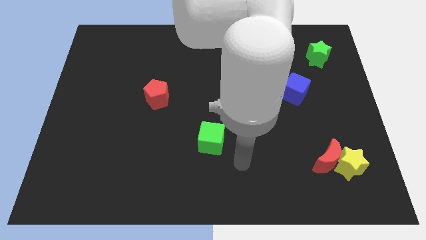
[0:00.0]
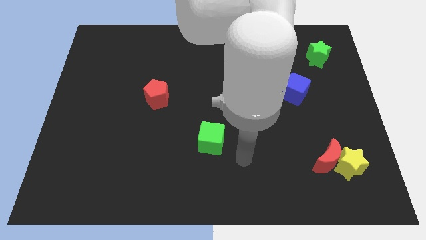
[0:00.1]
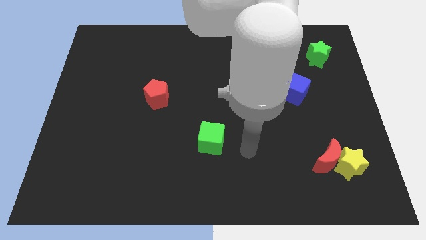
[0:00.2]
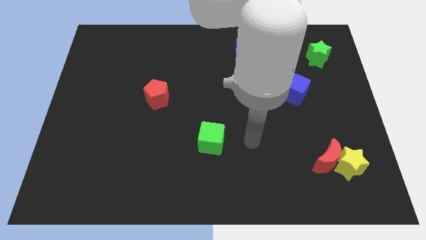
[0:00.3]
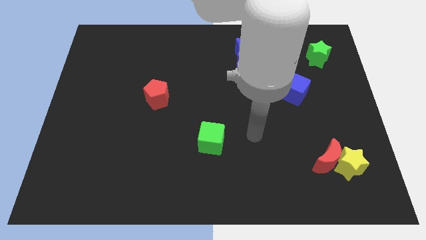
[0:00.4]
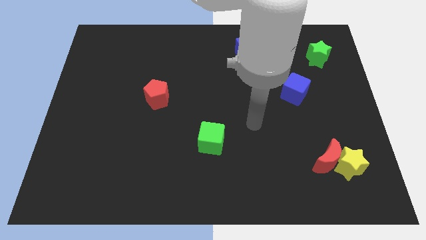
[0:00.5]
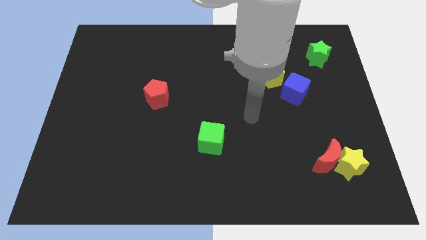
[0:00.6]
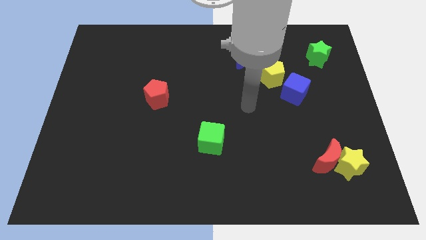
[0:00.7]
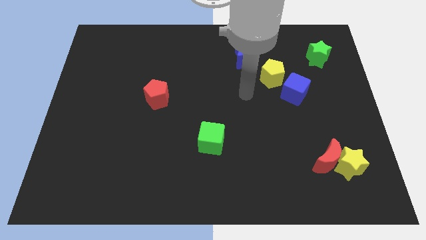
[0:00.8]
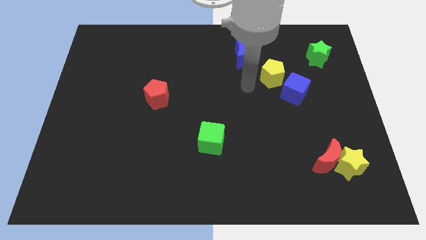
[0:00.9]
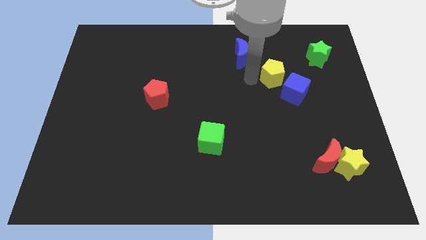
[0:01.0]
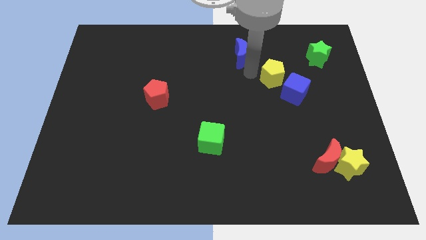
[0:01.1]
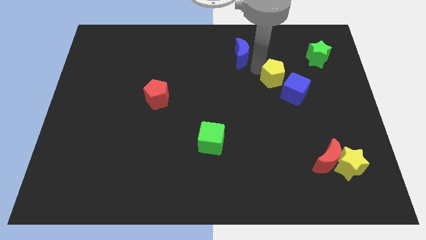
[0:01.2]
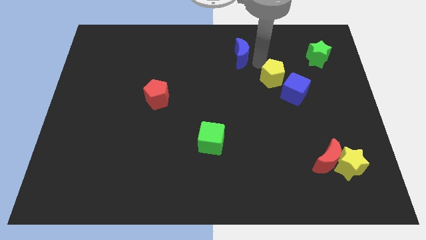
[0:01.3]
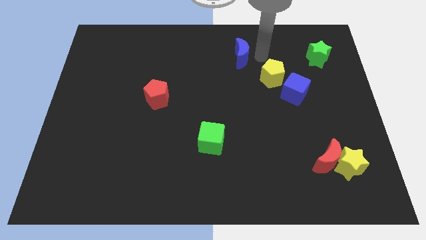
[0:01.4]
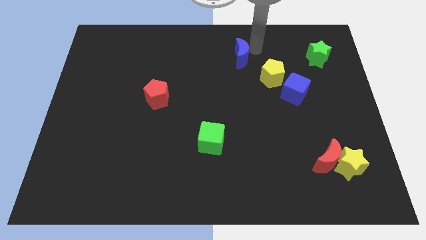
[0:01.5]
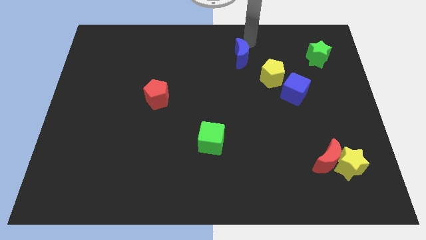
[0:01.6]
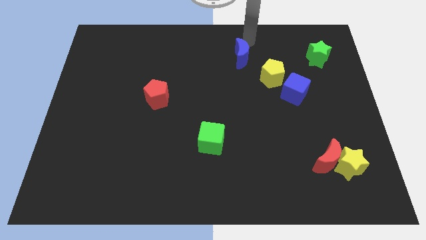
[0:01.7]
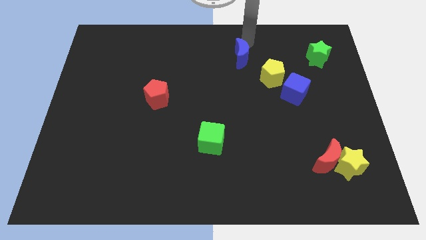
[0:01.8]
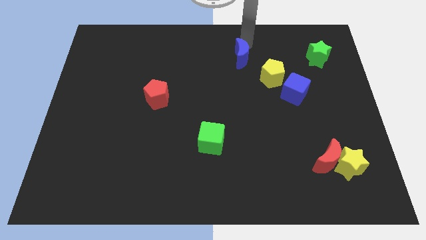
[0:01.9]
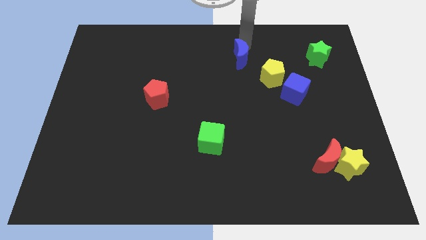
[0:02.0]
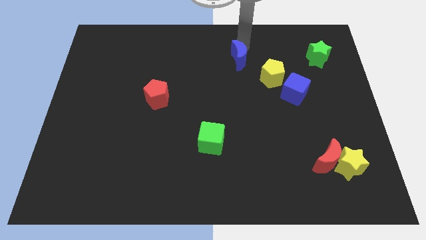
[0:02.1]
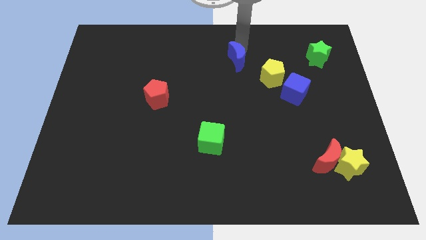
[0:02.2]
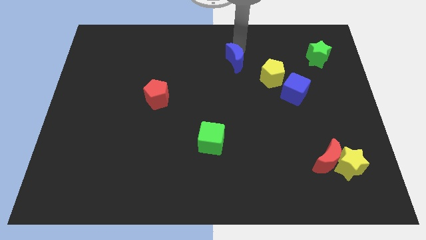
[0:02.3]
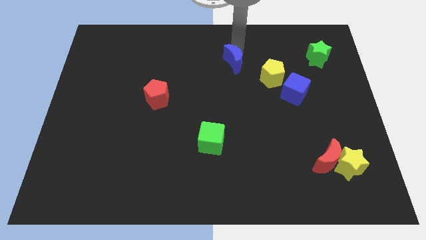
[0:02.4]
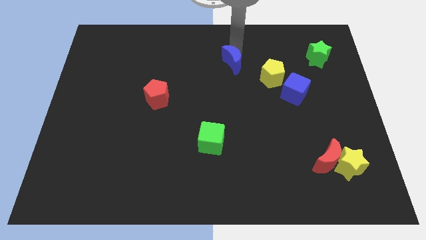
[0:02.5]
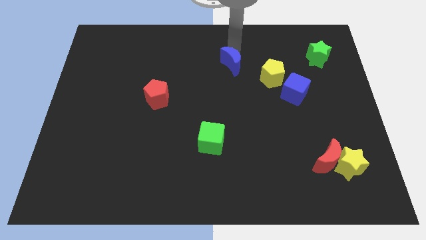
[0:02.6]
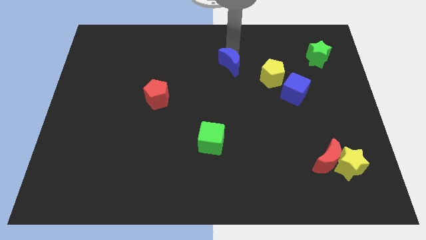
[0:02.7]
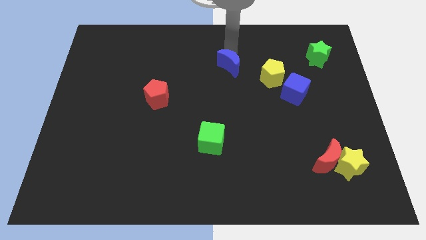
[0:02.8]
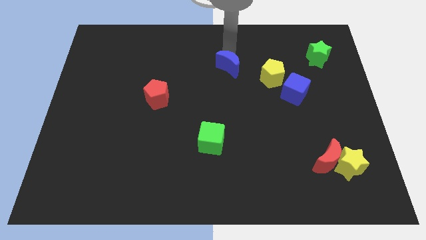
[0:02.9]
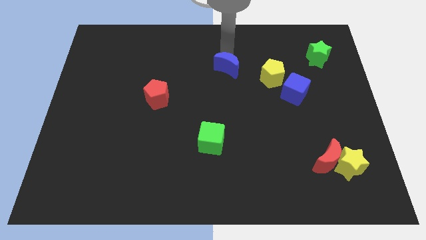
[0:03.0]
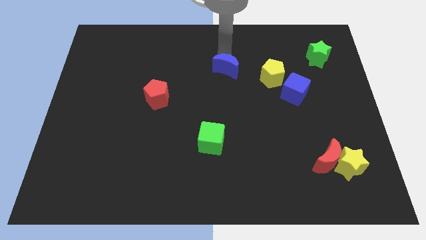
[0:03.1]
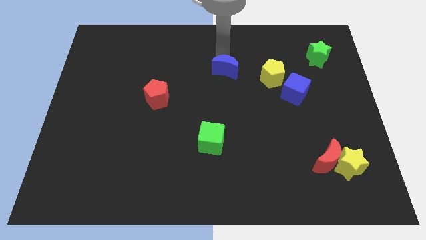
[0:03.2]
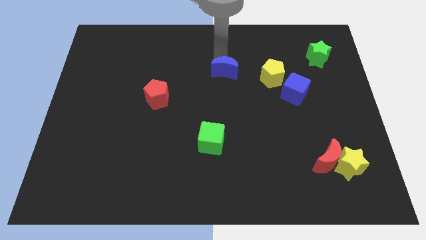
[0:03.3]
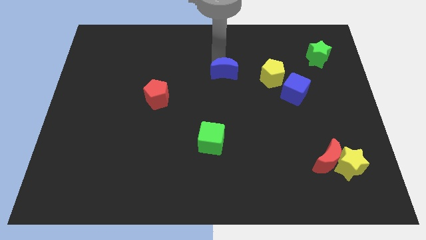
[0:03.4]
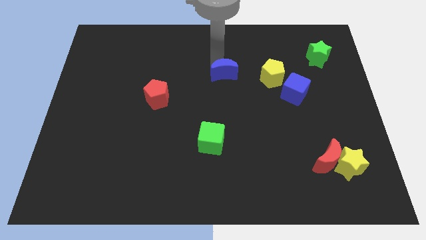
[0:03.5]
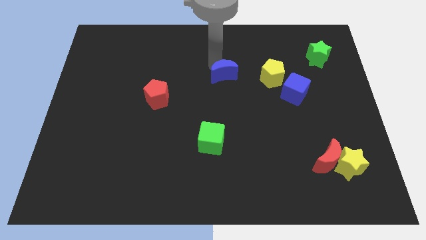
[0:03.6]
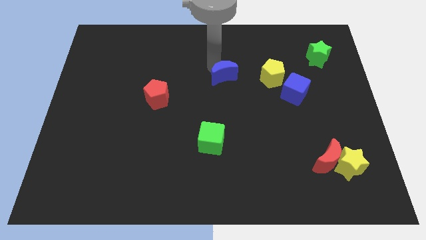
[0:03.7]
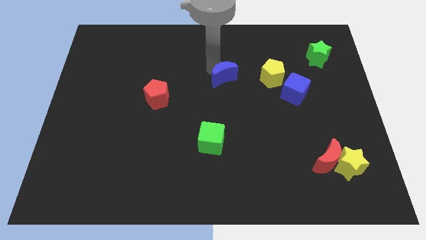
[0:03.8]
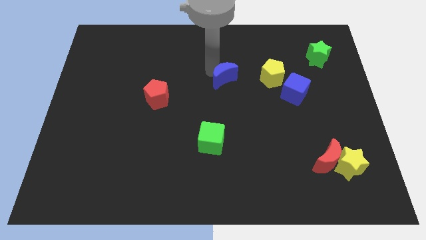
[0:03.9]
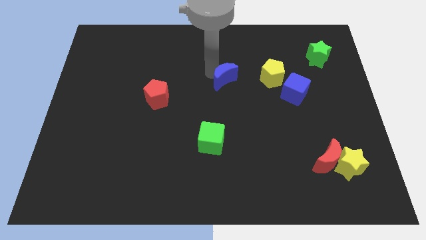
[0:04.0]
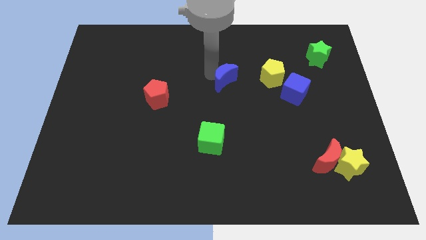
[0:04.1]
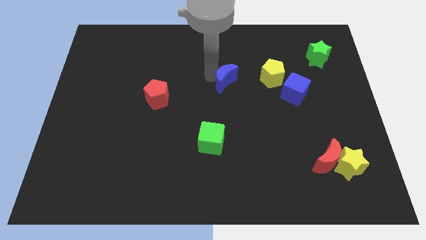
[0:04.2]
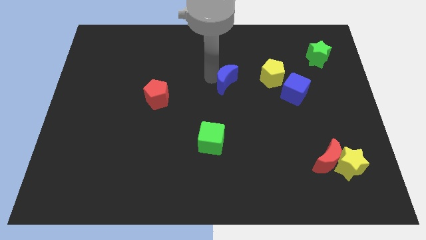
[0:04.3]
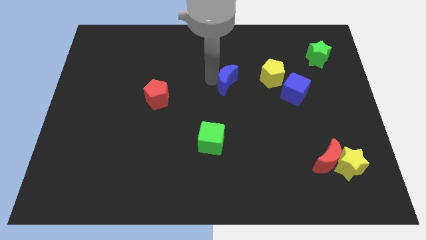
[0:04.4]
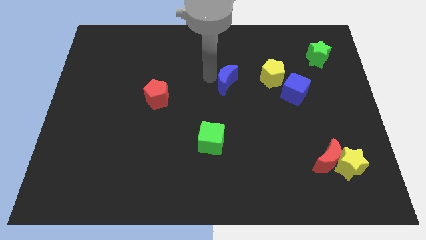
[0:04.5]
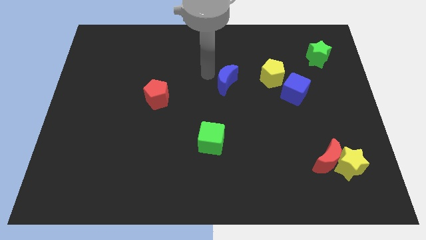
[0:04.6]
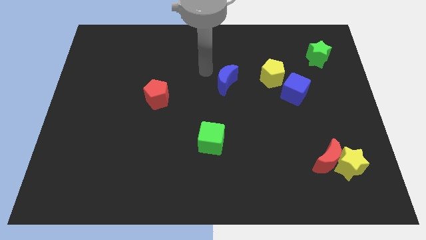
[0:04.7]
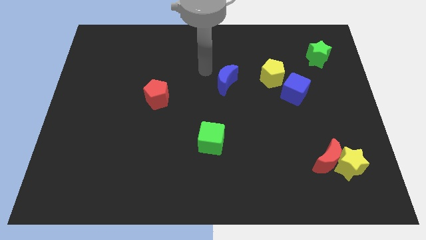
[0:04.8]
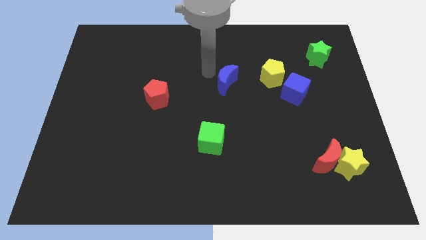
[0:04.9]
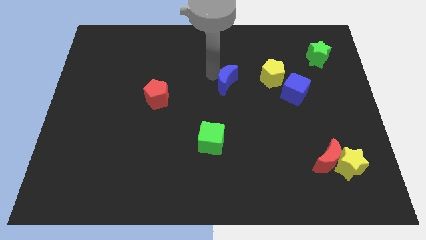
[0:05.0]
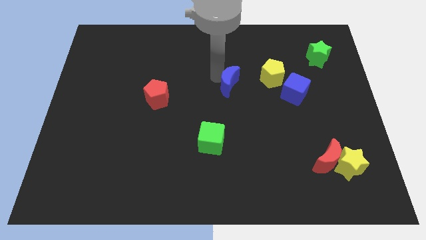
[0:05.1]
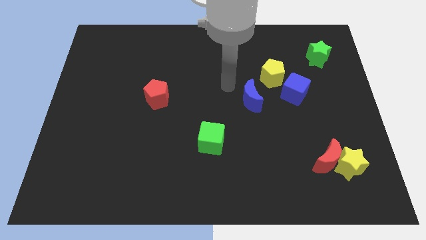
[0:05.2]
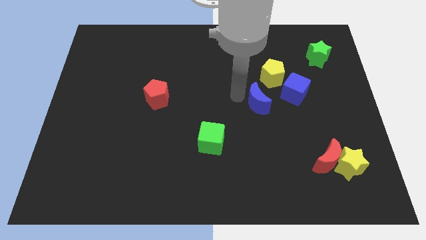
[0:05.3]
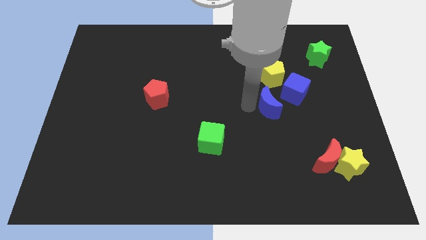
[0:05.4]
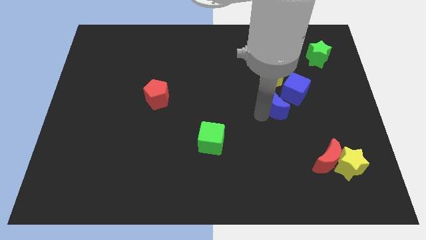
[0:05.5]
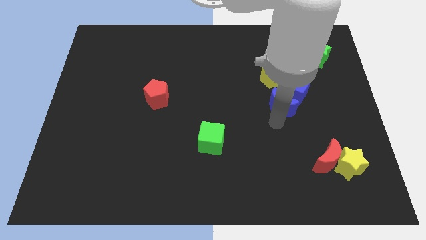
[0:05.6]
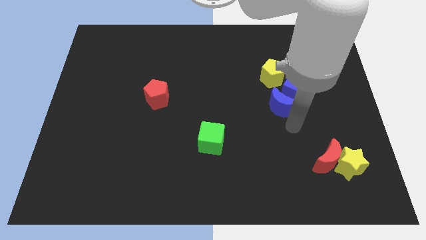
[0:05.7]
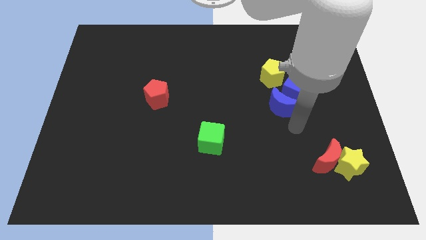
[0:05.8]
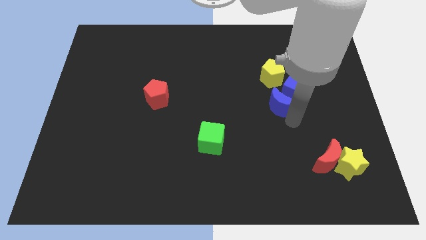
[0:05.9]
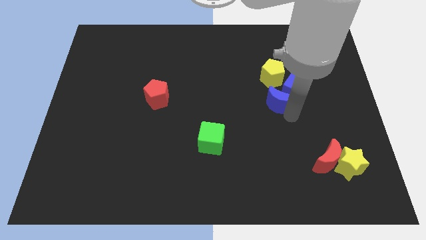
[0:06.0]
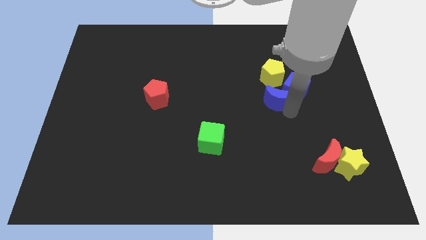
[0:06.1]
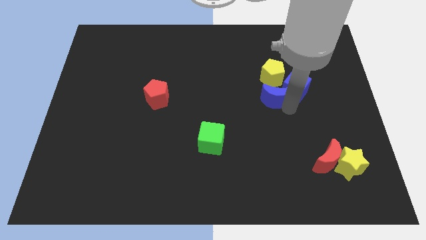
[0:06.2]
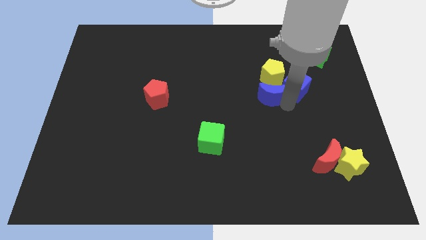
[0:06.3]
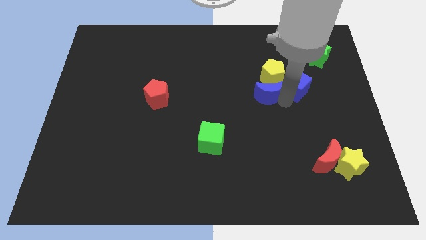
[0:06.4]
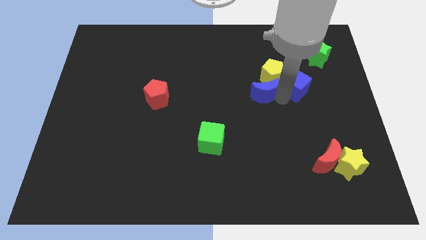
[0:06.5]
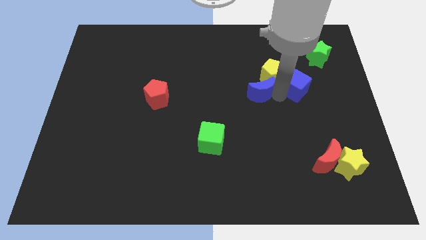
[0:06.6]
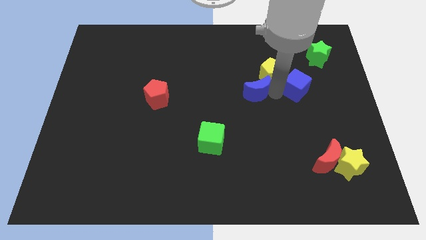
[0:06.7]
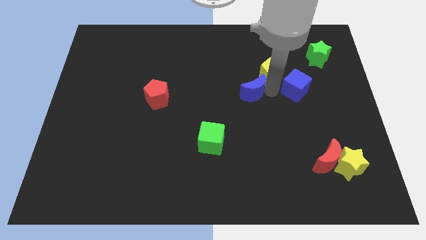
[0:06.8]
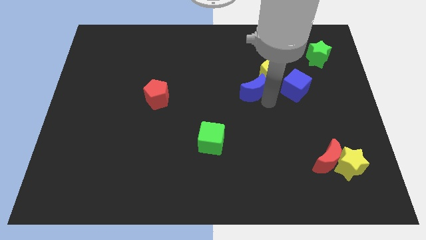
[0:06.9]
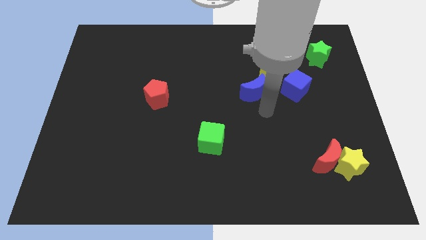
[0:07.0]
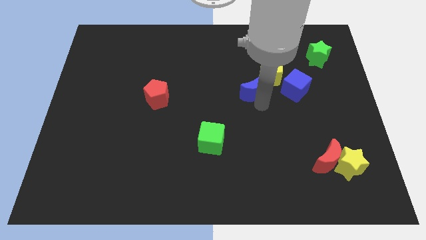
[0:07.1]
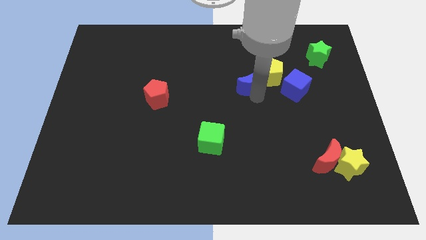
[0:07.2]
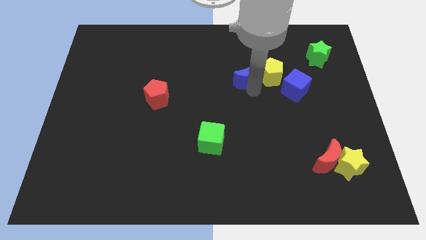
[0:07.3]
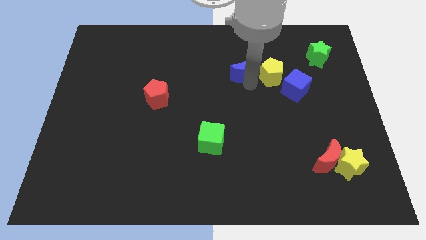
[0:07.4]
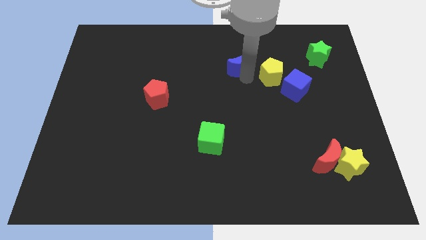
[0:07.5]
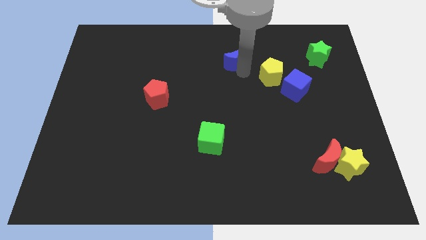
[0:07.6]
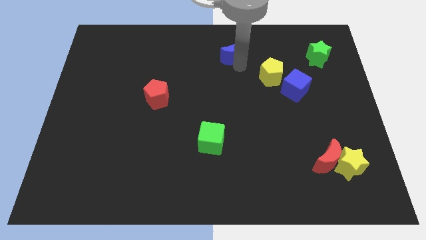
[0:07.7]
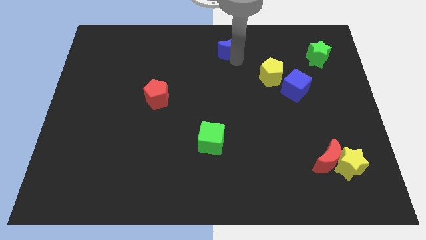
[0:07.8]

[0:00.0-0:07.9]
put the blue moon to the towards your base
